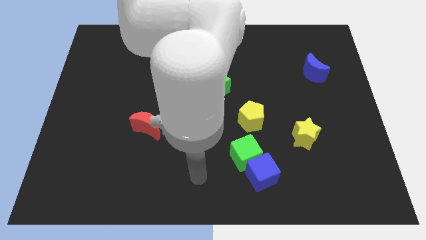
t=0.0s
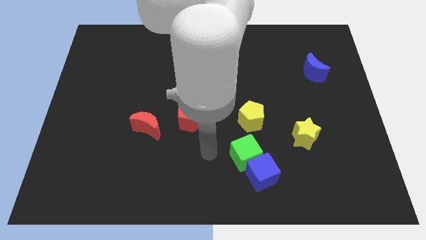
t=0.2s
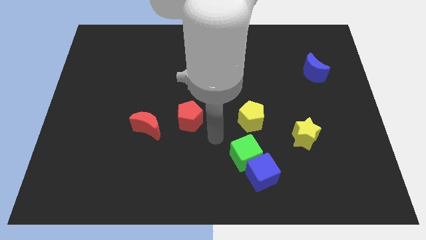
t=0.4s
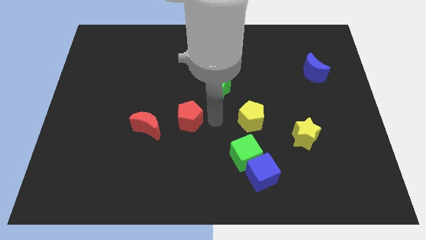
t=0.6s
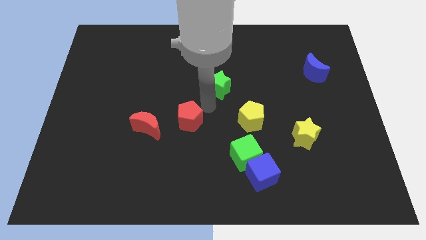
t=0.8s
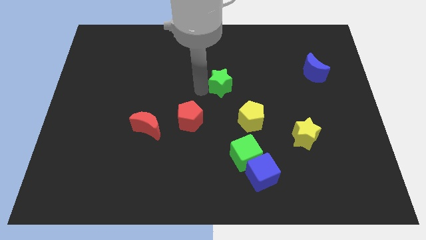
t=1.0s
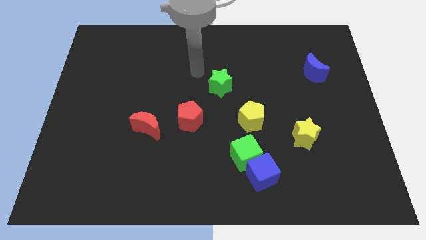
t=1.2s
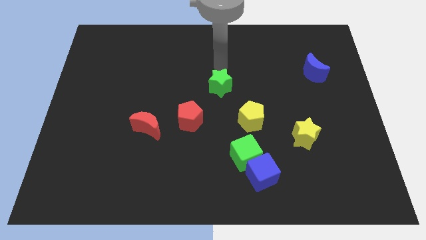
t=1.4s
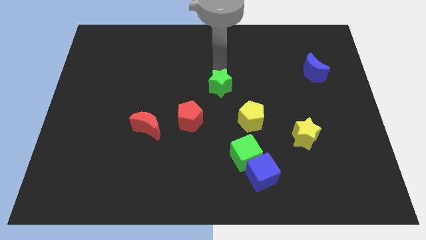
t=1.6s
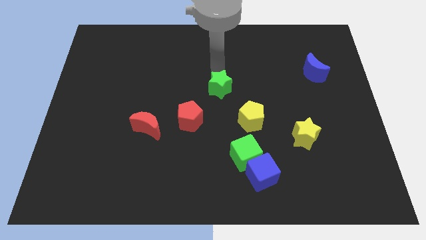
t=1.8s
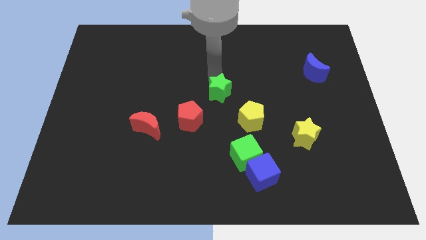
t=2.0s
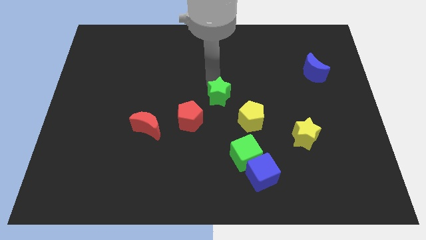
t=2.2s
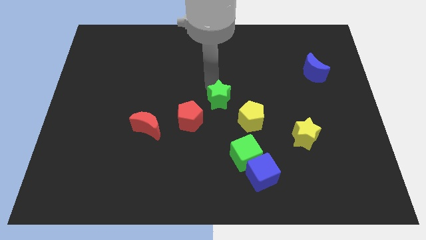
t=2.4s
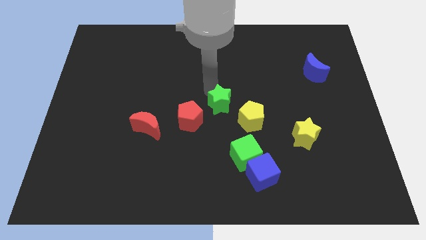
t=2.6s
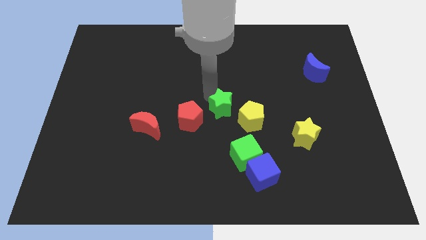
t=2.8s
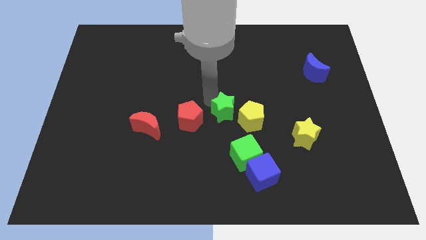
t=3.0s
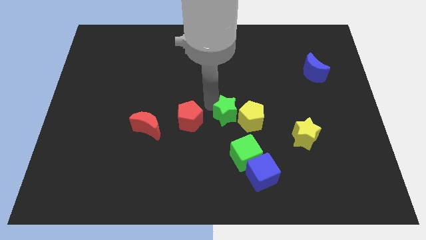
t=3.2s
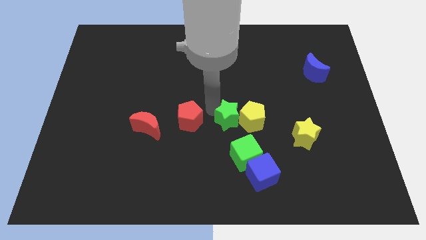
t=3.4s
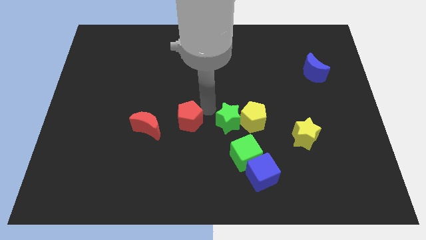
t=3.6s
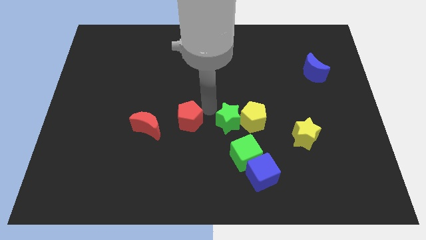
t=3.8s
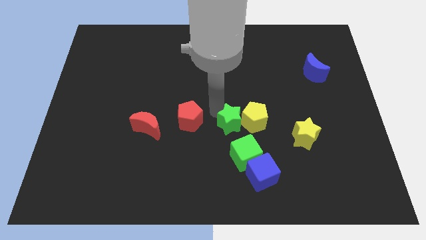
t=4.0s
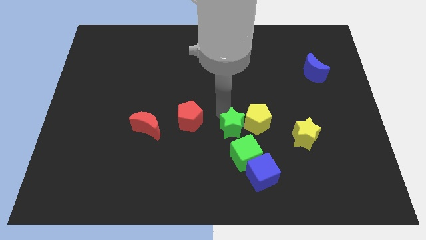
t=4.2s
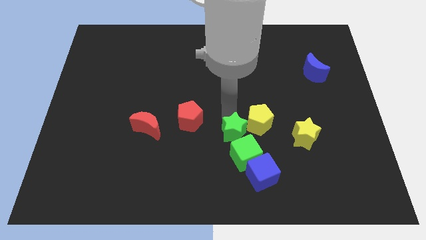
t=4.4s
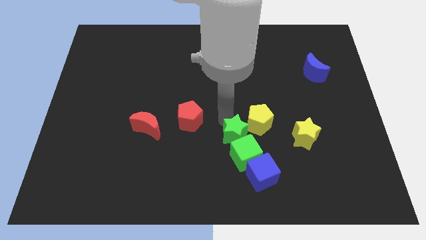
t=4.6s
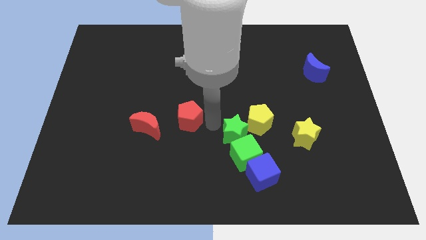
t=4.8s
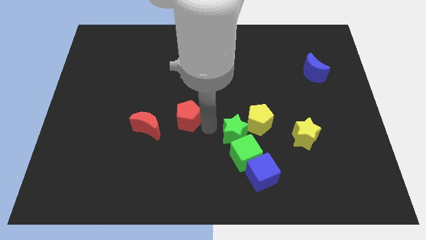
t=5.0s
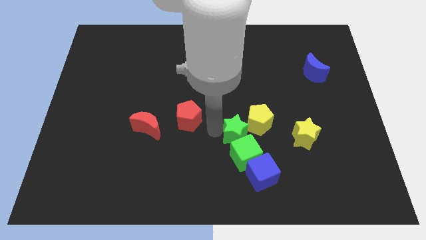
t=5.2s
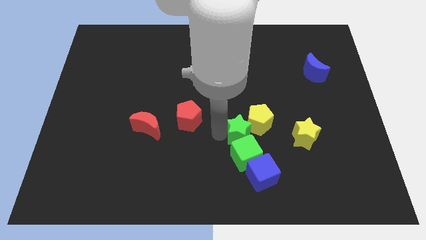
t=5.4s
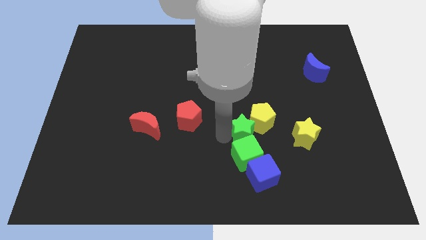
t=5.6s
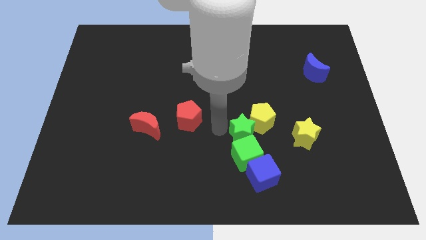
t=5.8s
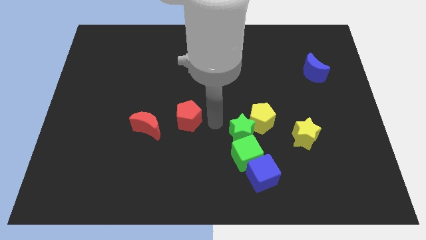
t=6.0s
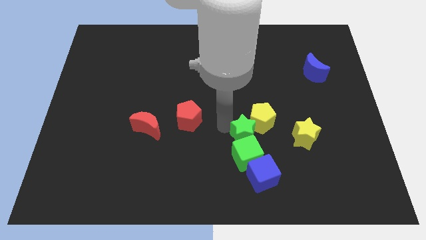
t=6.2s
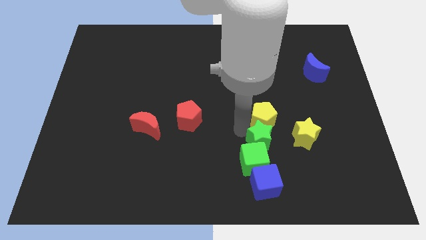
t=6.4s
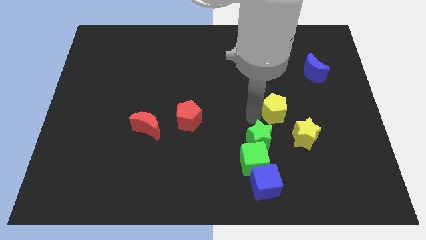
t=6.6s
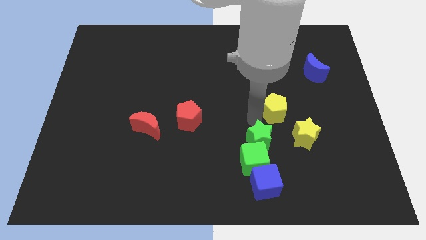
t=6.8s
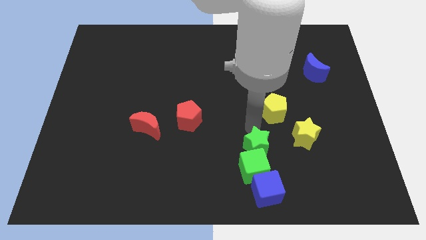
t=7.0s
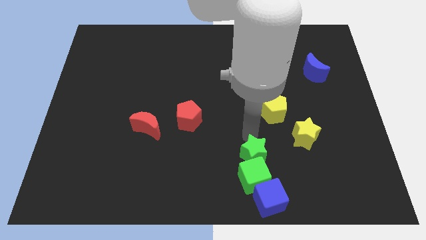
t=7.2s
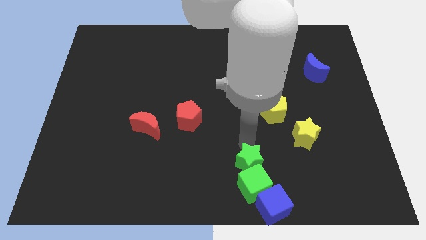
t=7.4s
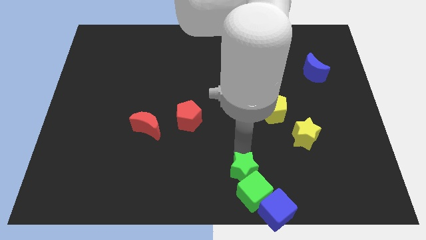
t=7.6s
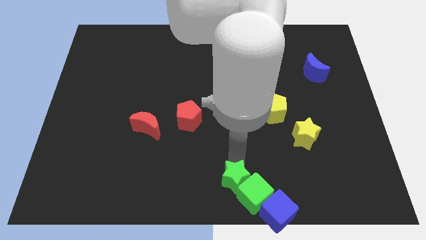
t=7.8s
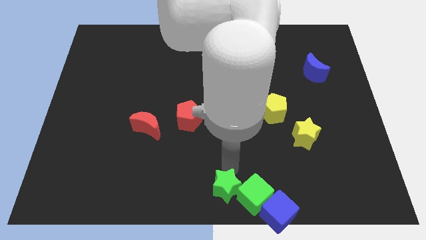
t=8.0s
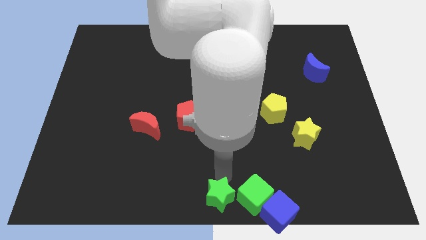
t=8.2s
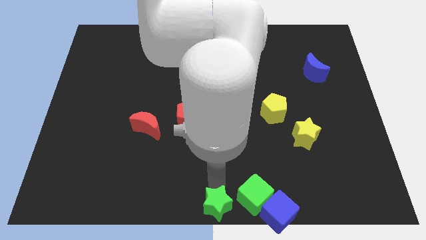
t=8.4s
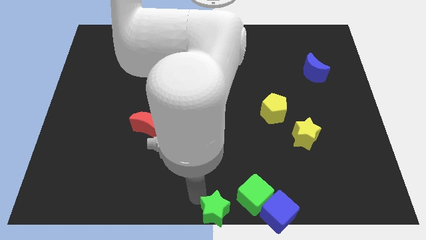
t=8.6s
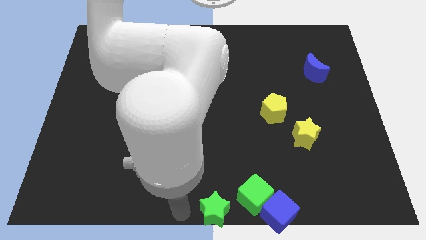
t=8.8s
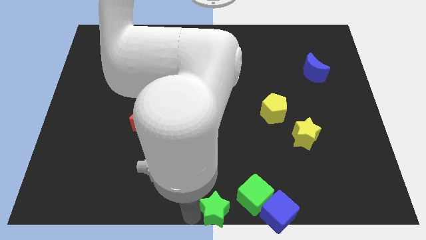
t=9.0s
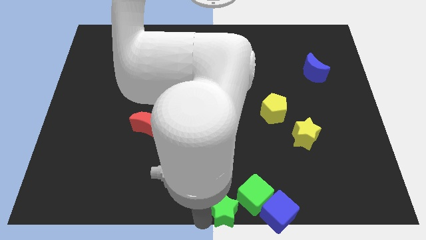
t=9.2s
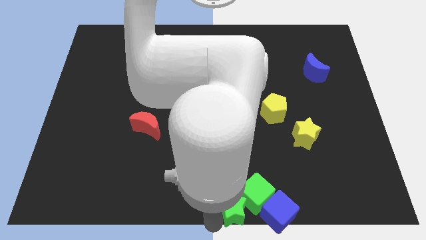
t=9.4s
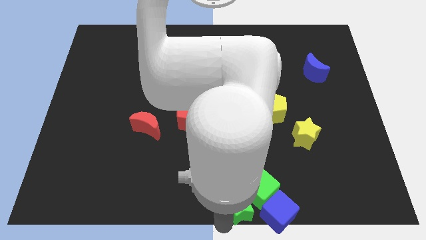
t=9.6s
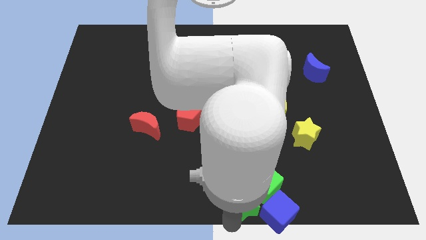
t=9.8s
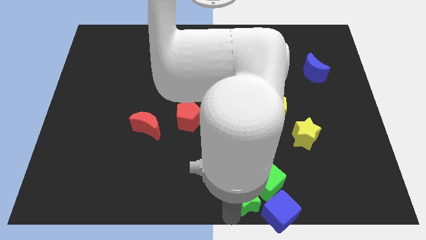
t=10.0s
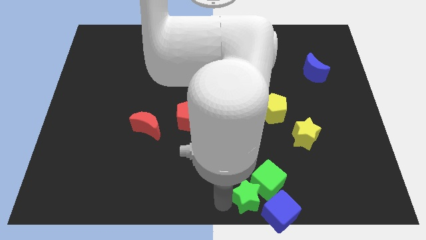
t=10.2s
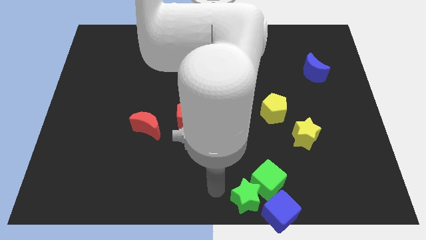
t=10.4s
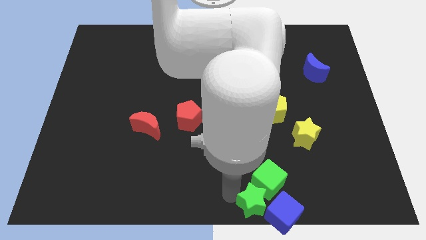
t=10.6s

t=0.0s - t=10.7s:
slide the green star towards the blue cube
